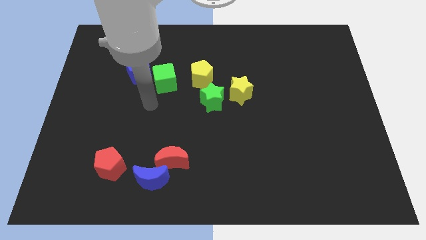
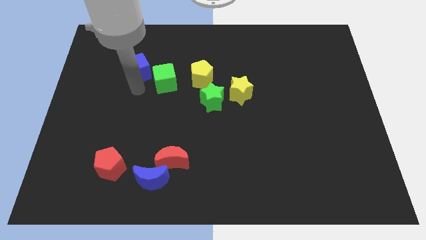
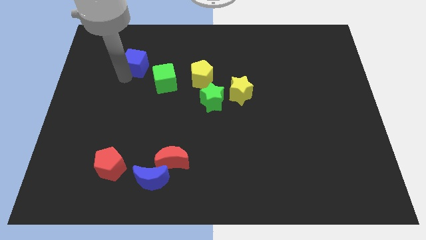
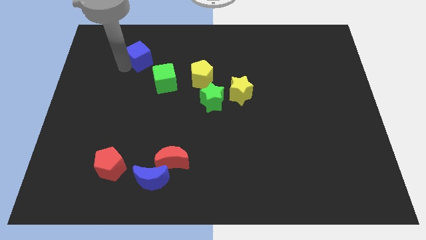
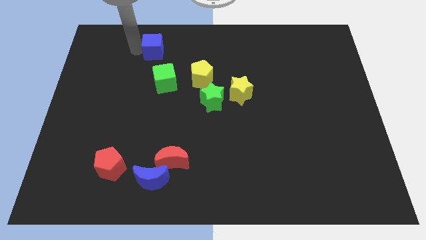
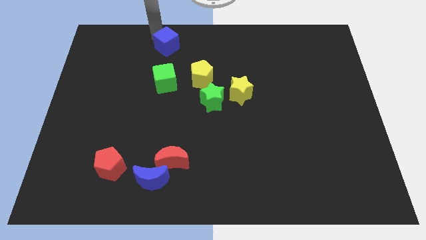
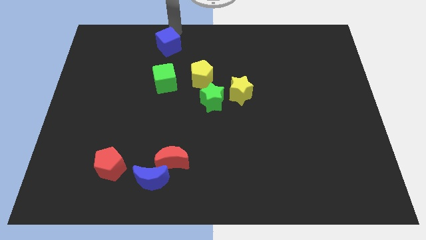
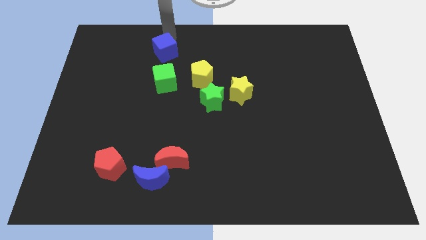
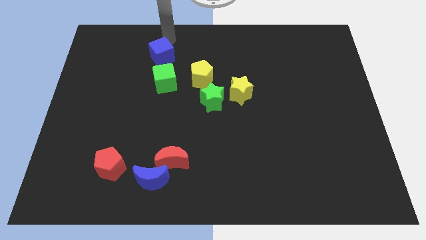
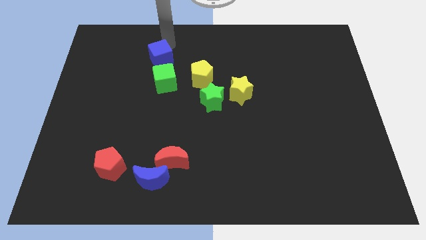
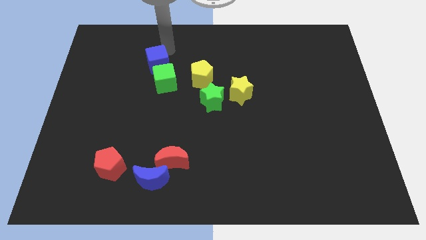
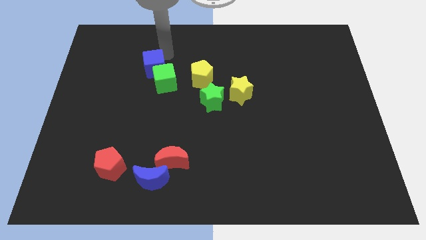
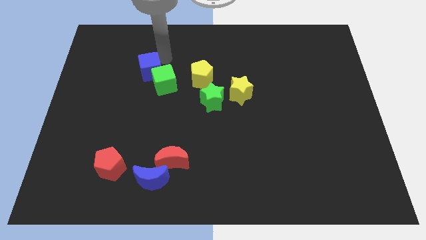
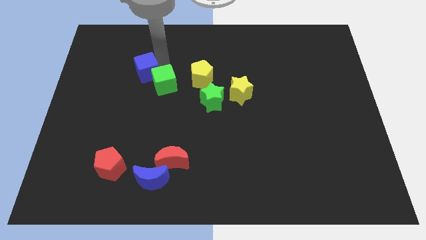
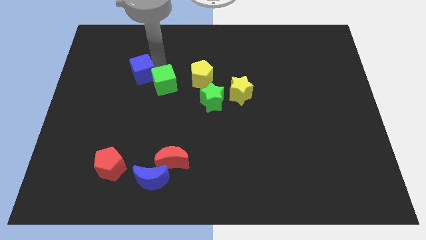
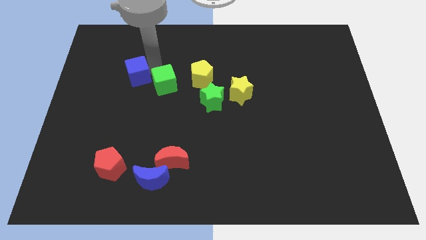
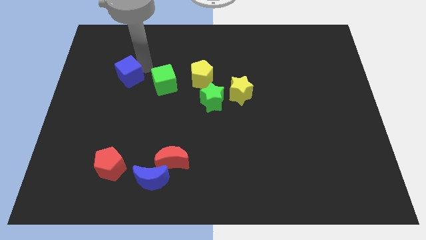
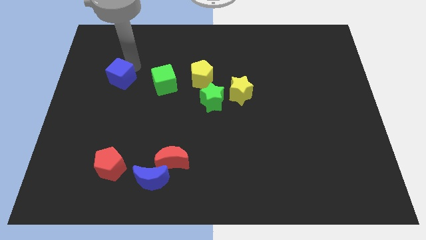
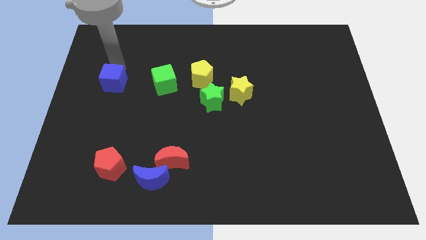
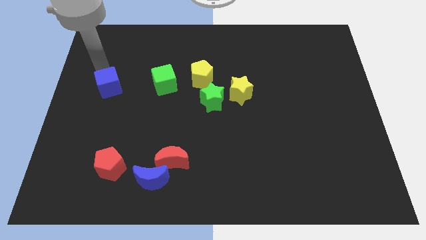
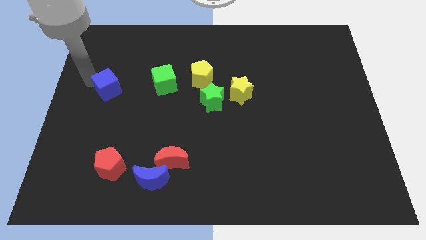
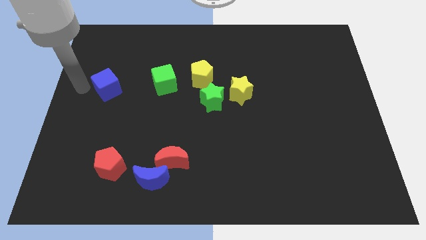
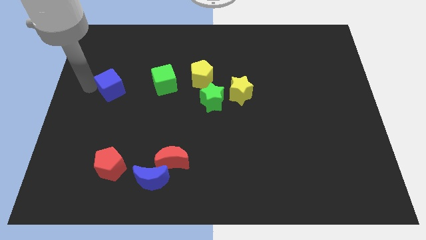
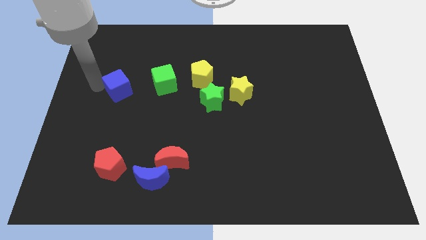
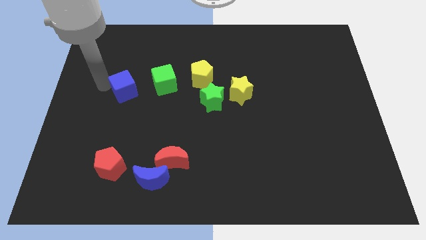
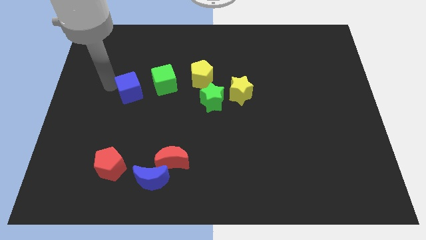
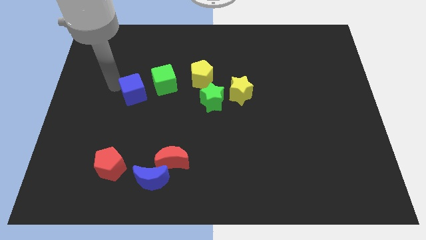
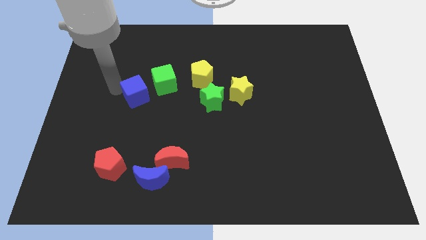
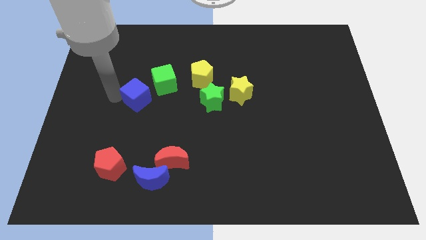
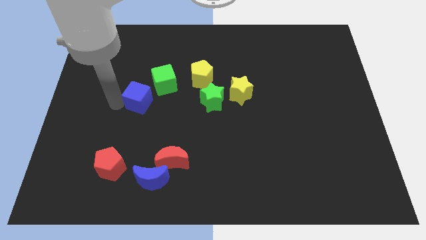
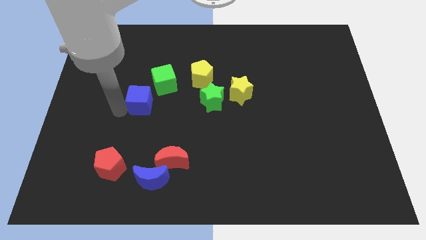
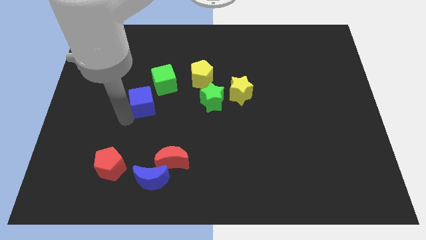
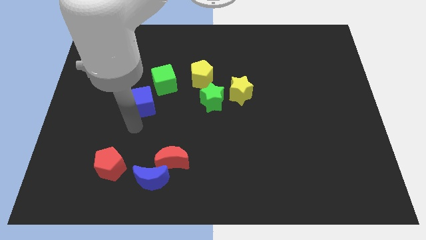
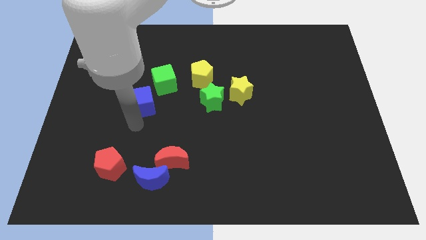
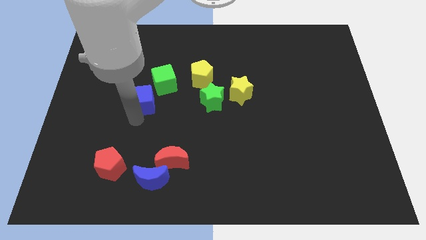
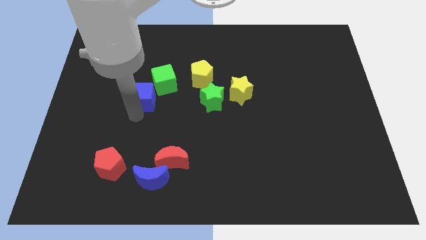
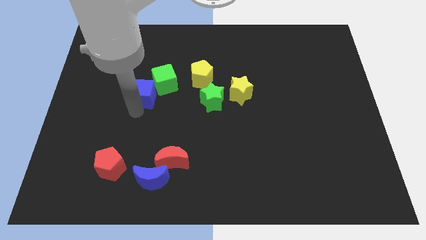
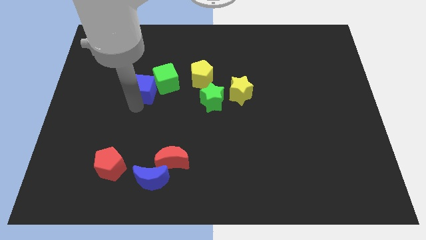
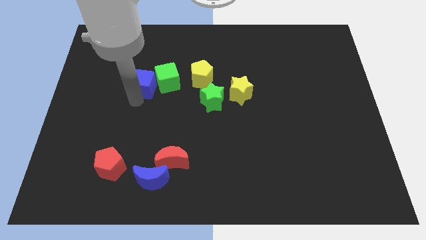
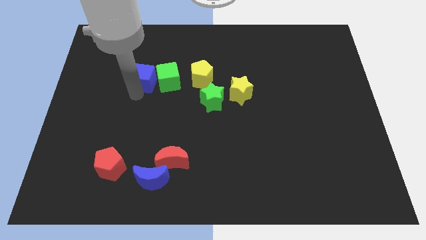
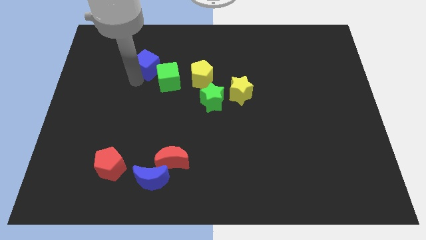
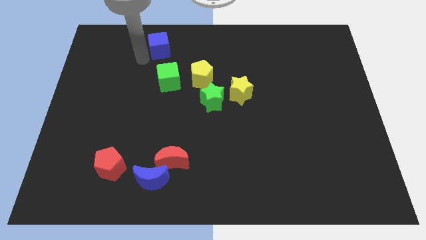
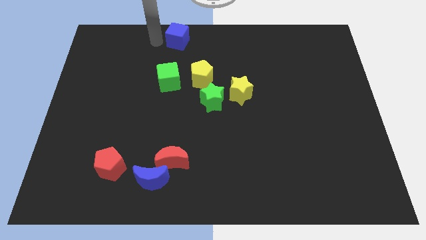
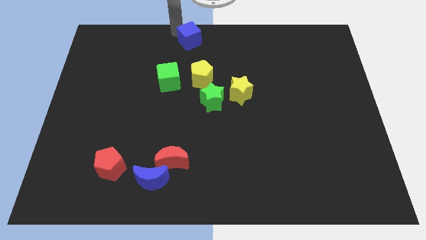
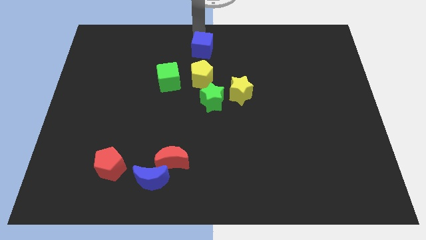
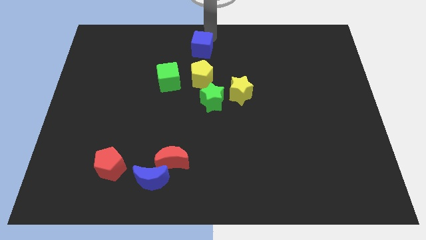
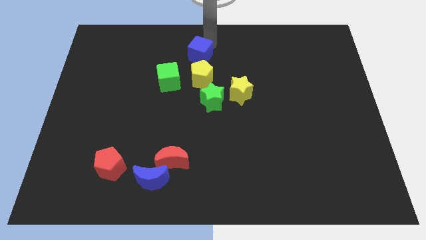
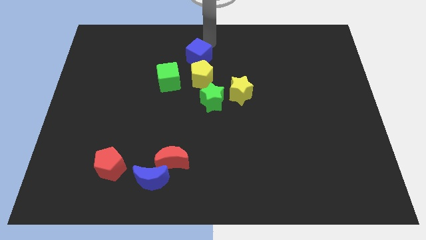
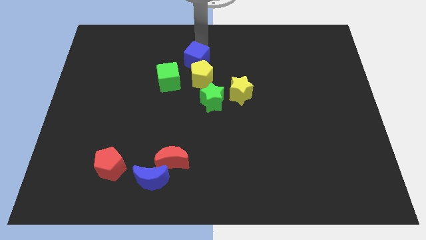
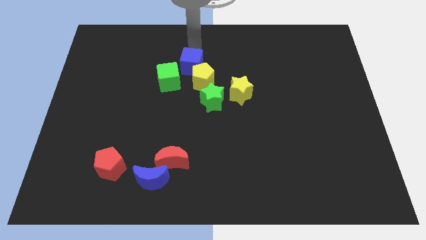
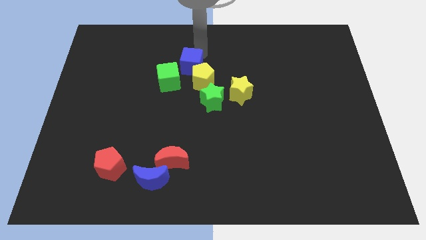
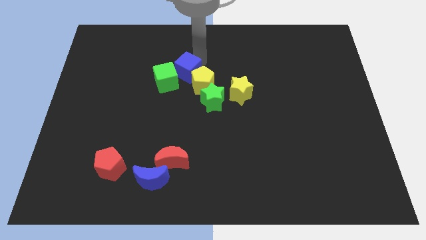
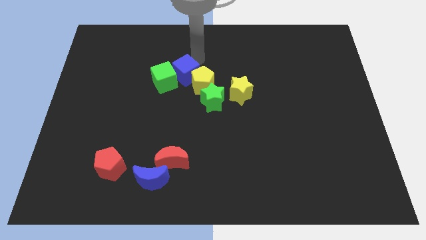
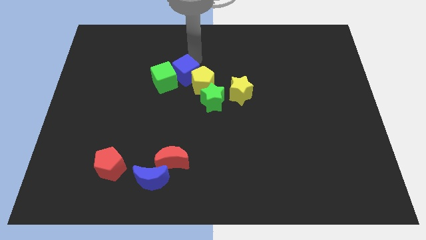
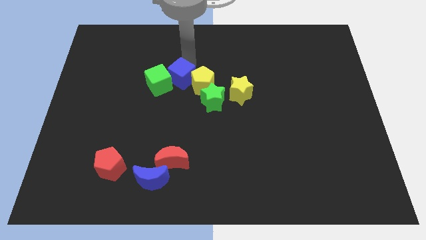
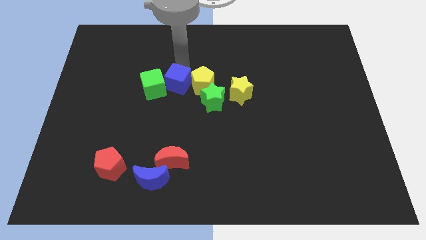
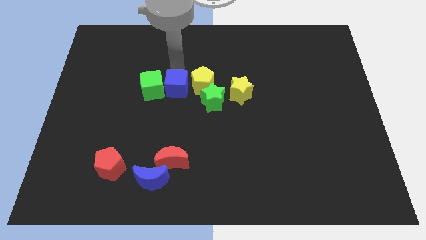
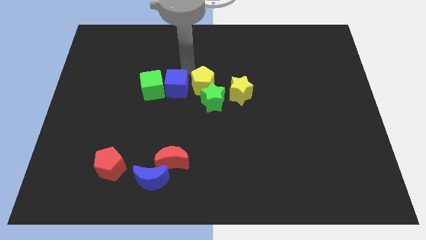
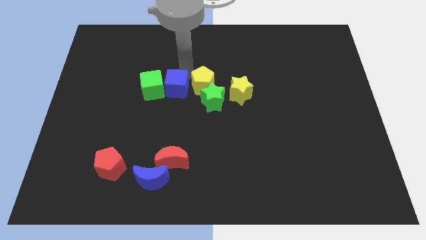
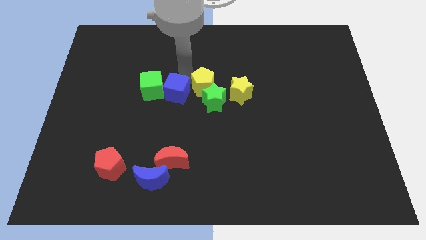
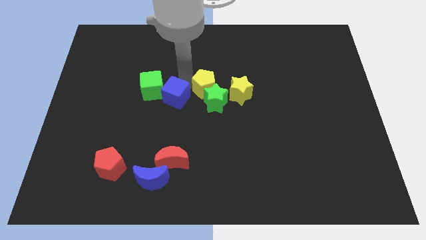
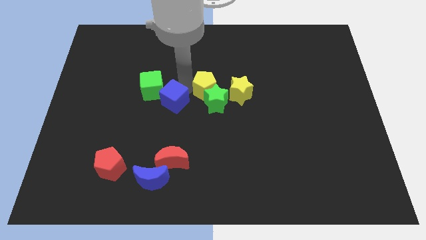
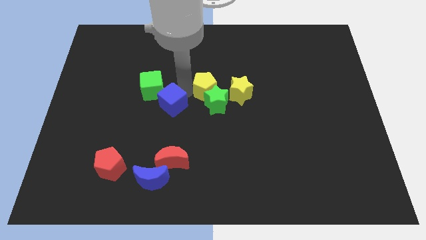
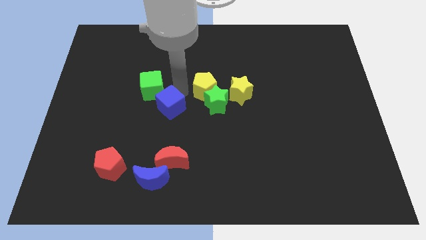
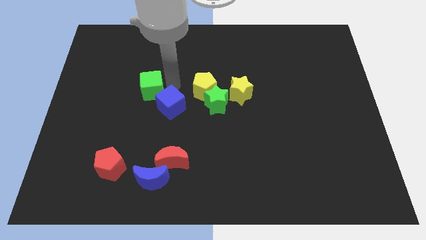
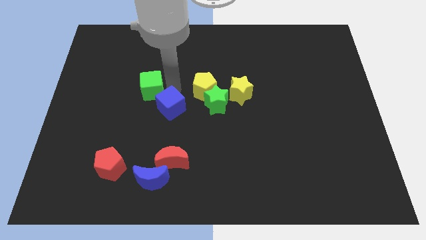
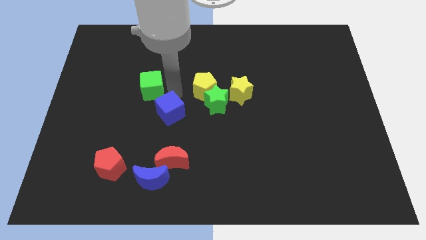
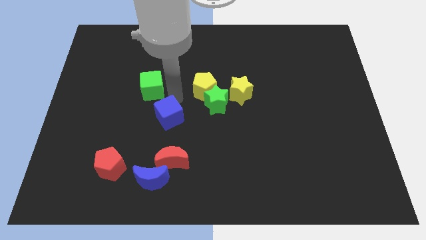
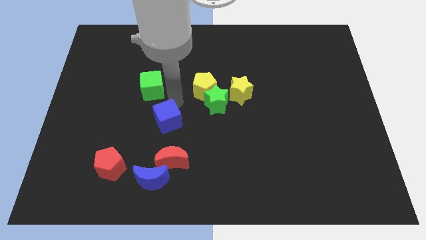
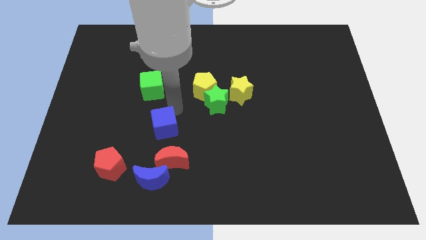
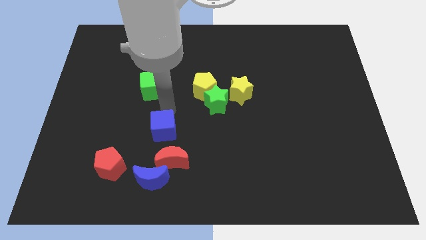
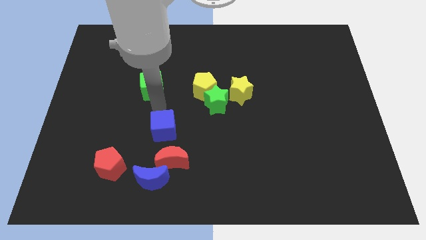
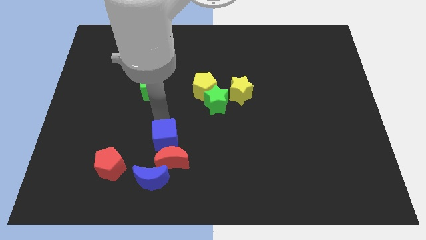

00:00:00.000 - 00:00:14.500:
put the blue cube to the red moon
